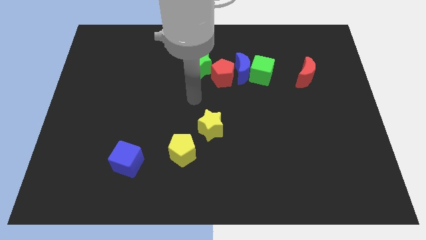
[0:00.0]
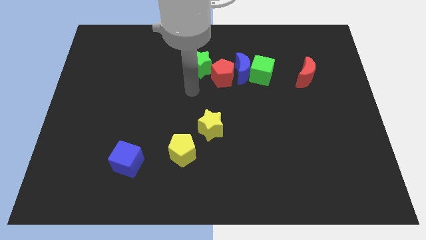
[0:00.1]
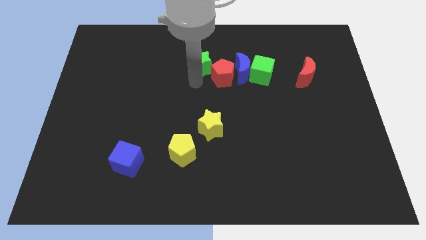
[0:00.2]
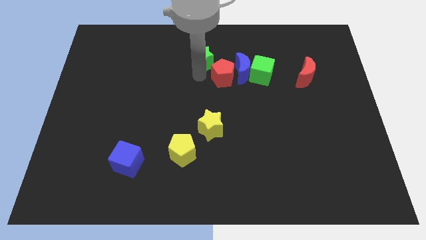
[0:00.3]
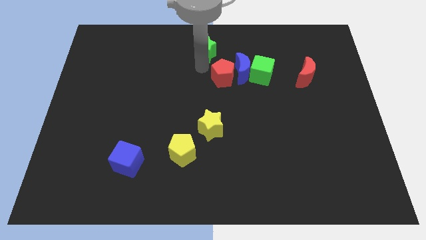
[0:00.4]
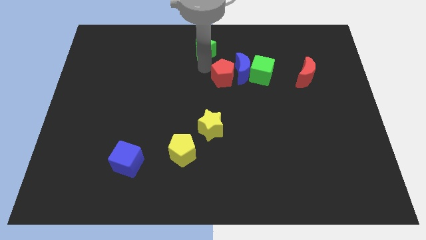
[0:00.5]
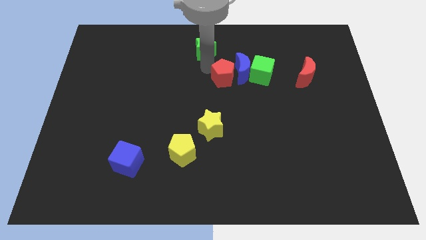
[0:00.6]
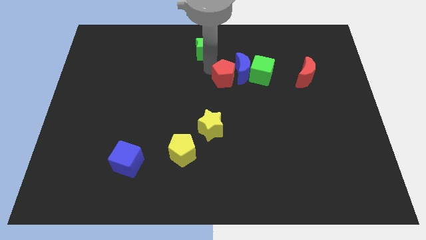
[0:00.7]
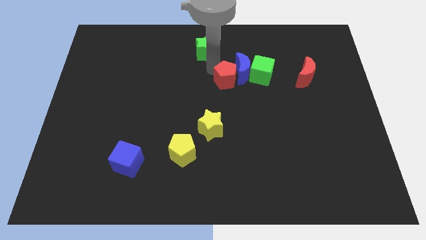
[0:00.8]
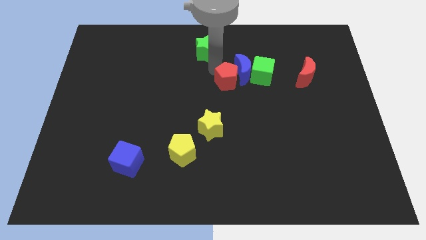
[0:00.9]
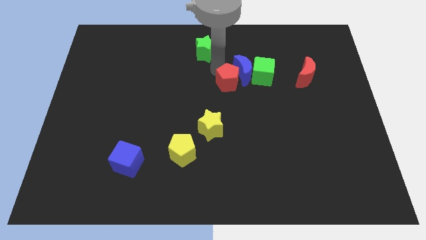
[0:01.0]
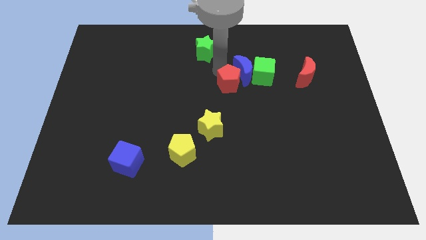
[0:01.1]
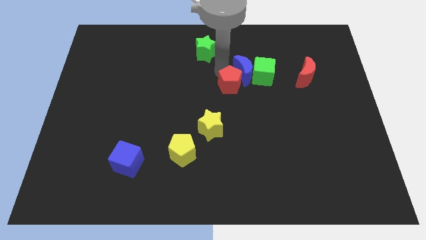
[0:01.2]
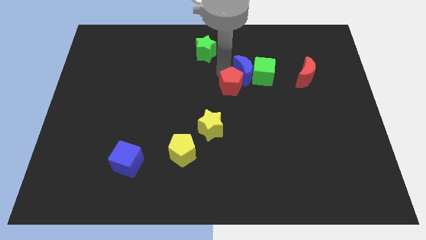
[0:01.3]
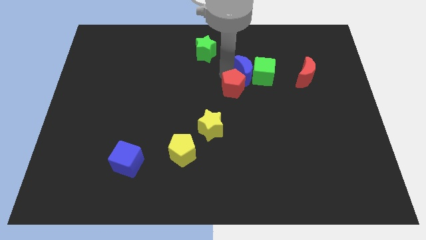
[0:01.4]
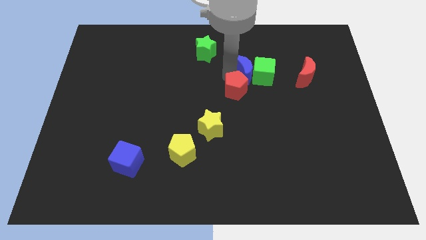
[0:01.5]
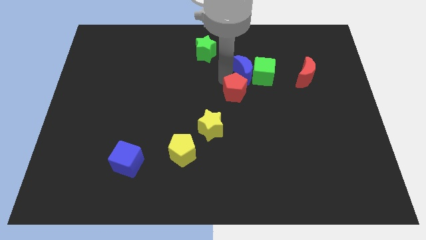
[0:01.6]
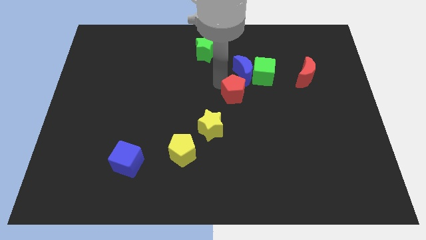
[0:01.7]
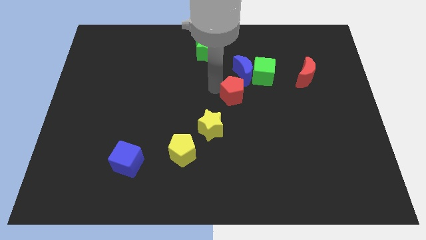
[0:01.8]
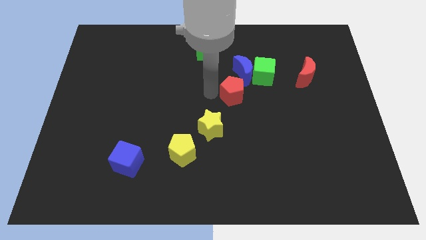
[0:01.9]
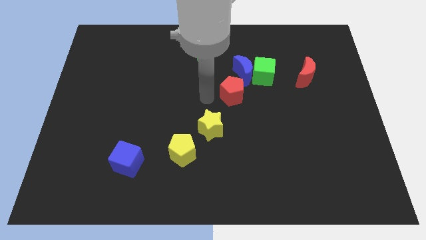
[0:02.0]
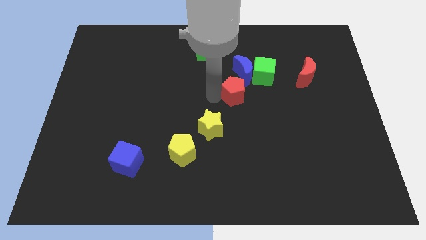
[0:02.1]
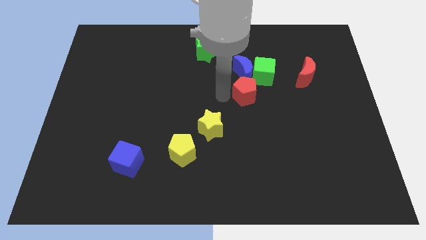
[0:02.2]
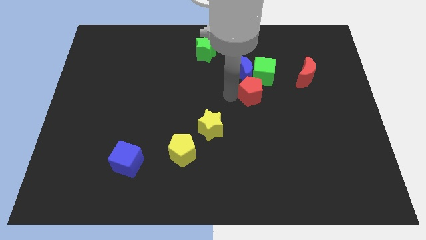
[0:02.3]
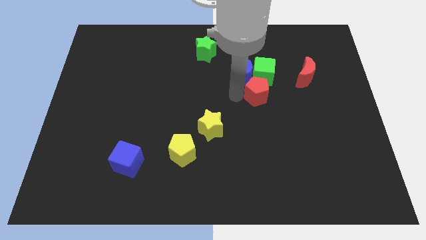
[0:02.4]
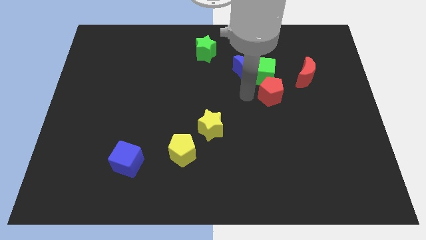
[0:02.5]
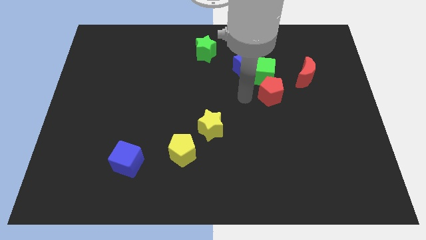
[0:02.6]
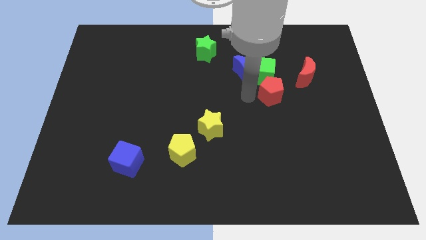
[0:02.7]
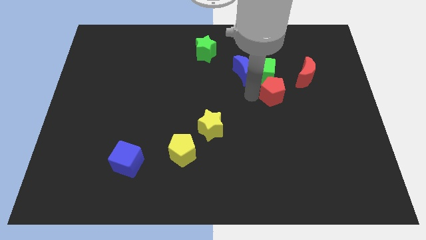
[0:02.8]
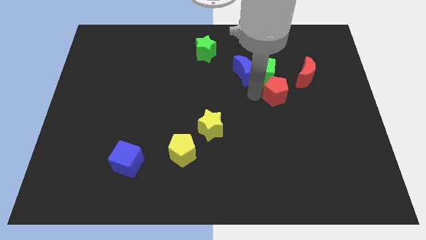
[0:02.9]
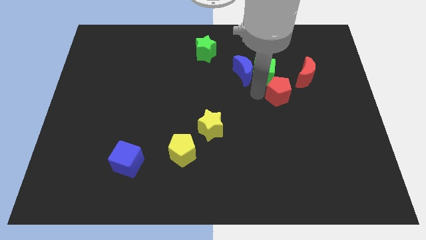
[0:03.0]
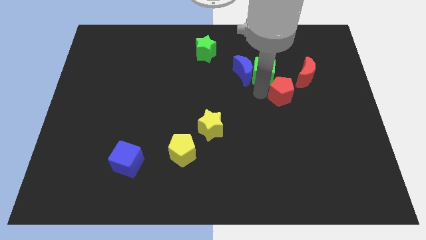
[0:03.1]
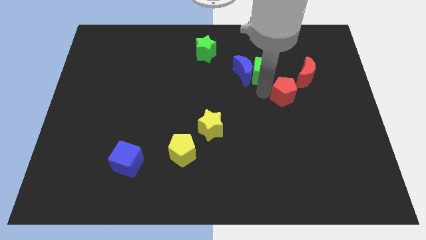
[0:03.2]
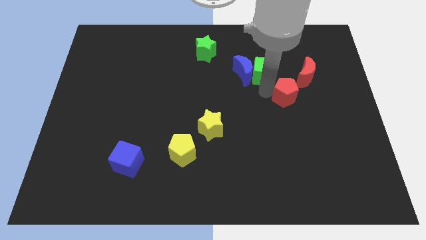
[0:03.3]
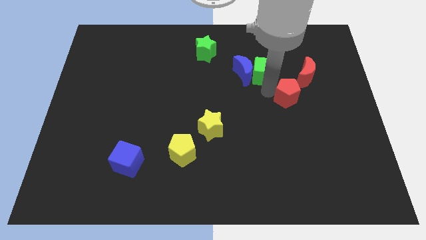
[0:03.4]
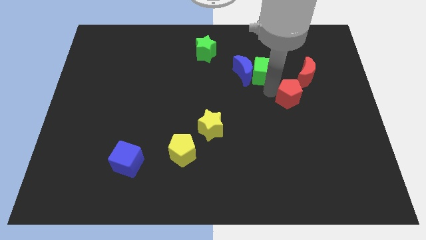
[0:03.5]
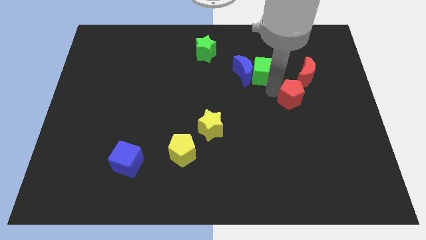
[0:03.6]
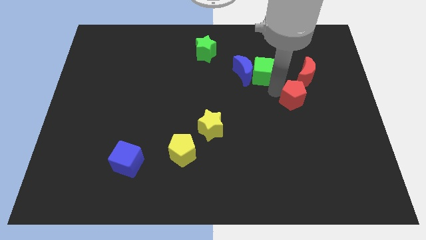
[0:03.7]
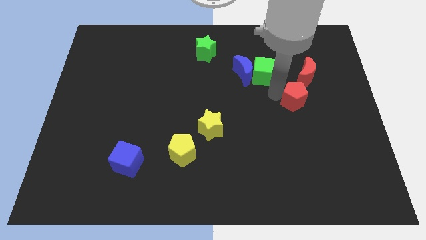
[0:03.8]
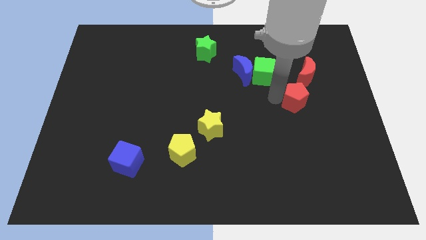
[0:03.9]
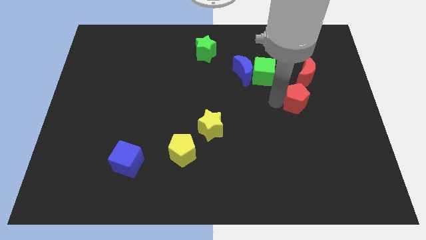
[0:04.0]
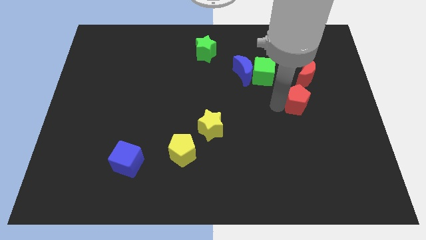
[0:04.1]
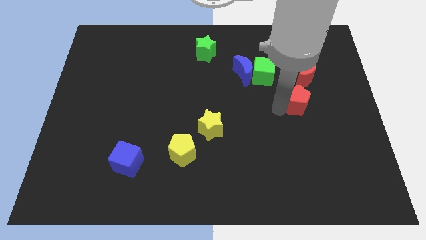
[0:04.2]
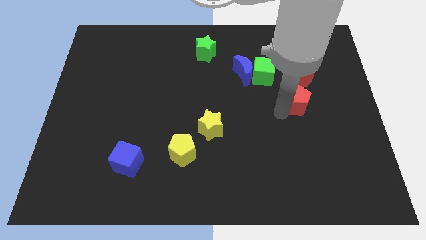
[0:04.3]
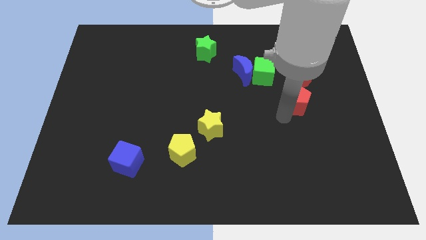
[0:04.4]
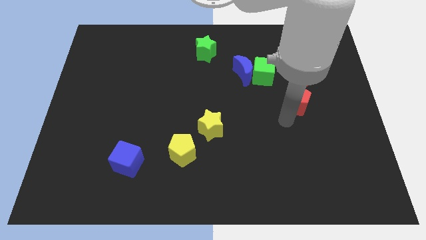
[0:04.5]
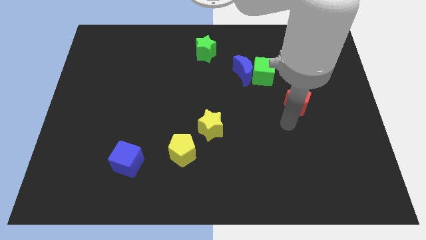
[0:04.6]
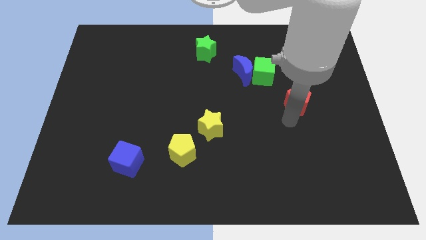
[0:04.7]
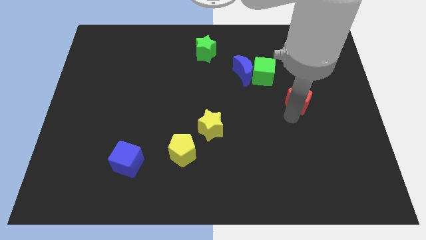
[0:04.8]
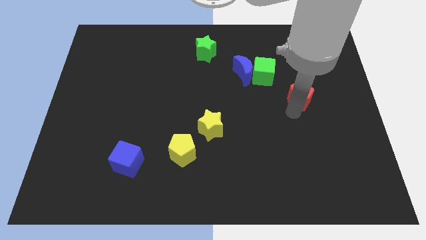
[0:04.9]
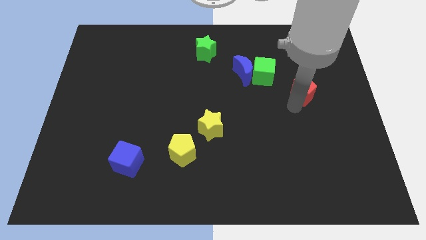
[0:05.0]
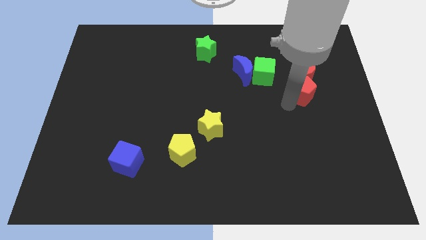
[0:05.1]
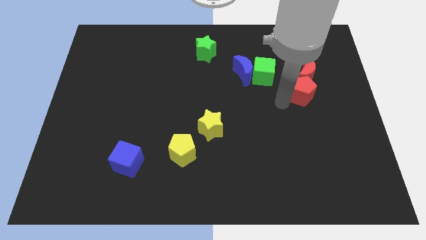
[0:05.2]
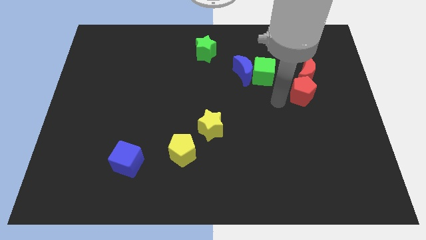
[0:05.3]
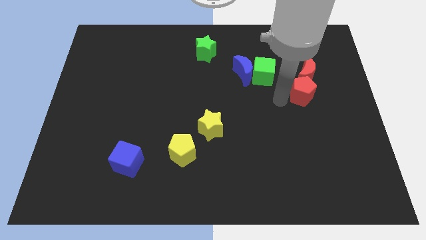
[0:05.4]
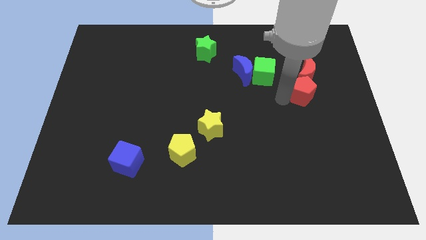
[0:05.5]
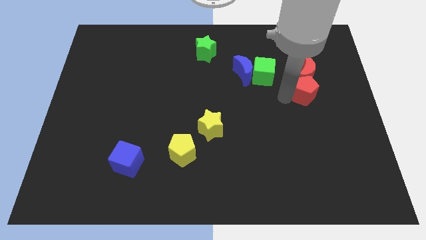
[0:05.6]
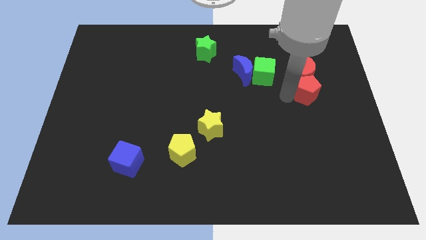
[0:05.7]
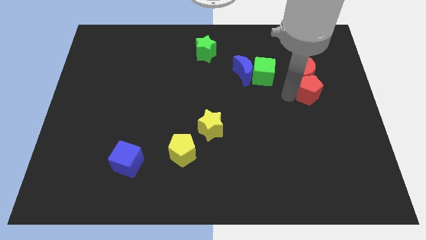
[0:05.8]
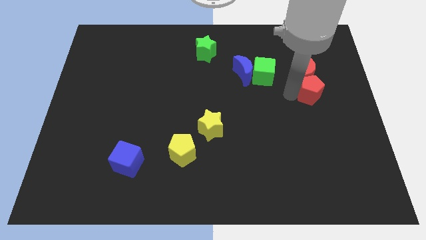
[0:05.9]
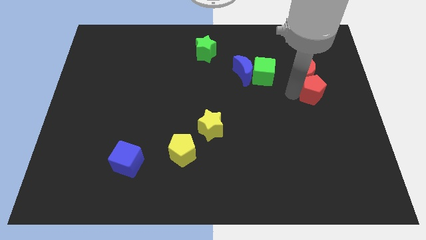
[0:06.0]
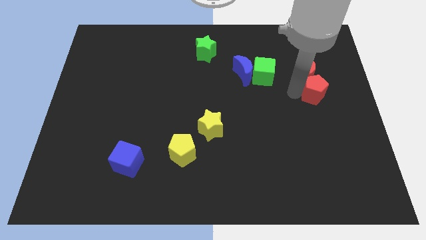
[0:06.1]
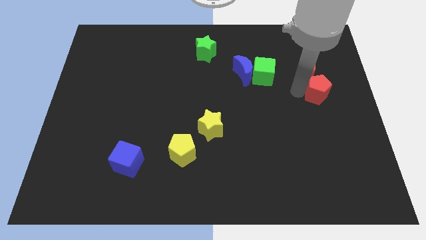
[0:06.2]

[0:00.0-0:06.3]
put the red pentagon to the right side of the board
